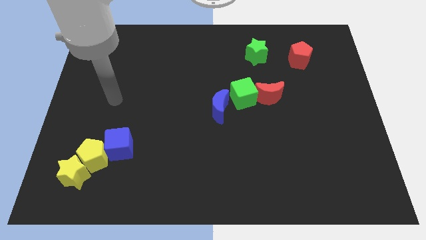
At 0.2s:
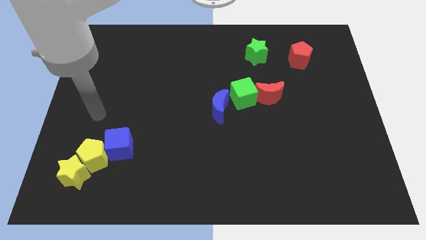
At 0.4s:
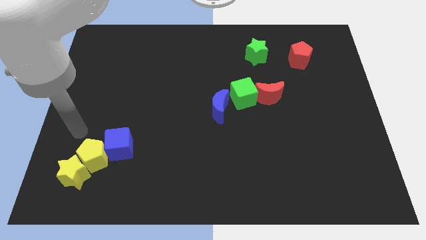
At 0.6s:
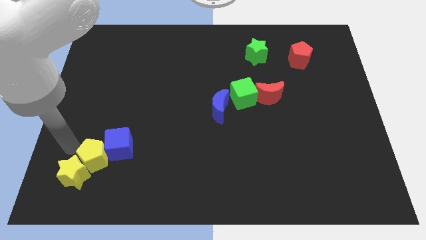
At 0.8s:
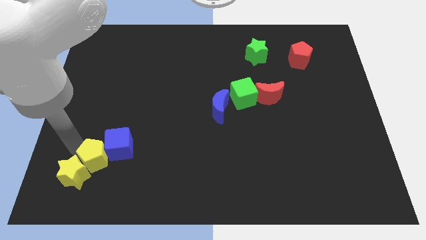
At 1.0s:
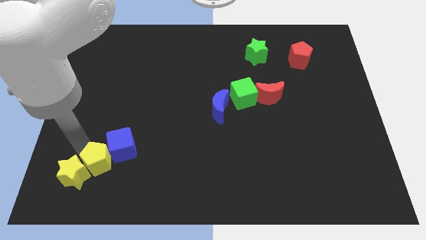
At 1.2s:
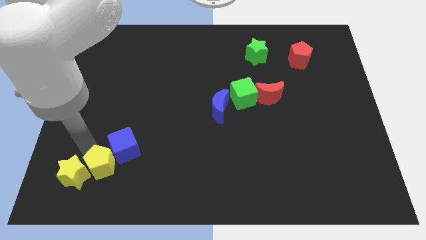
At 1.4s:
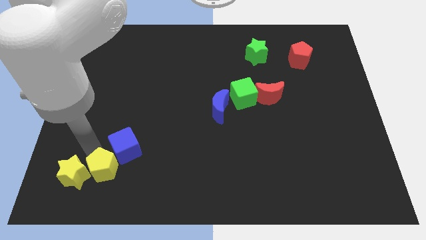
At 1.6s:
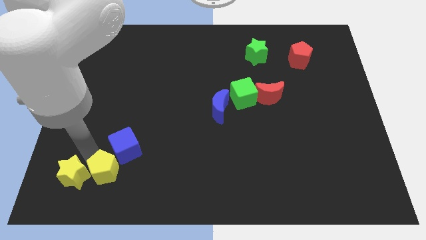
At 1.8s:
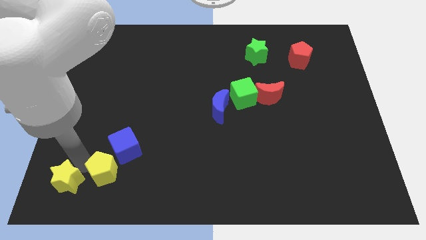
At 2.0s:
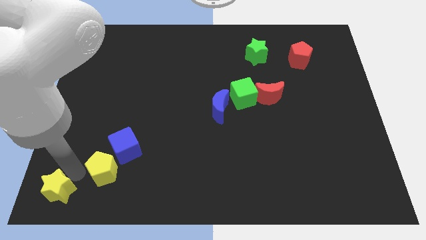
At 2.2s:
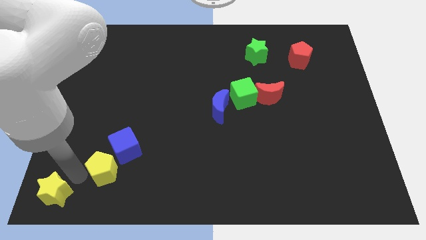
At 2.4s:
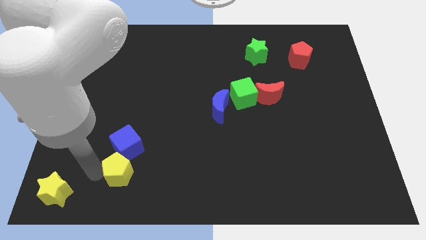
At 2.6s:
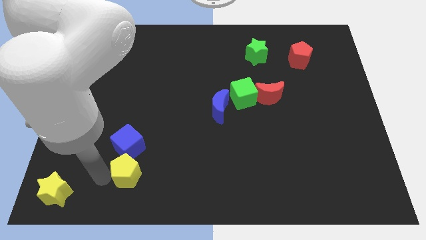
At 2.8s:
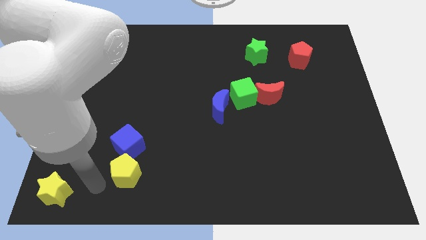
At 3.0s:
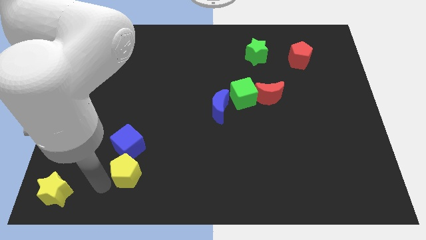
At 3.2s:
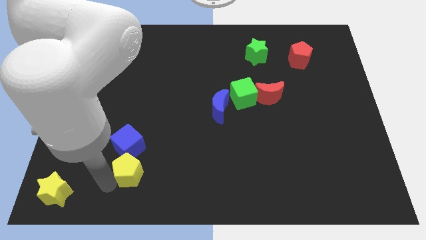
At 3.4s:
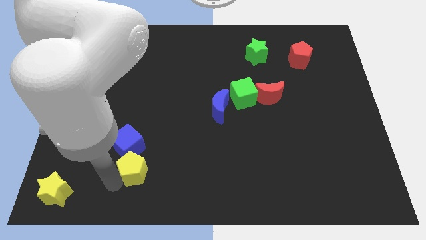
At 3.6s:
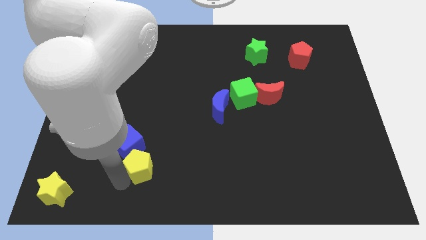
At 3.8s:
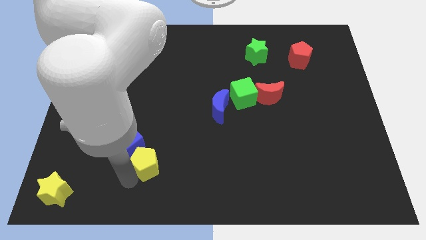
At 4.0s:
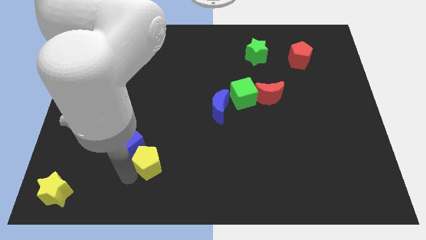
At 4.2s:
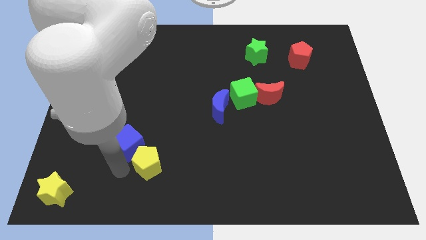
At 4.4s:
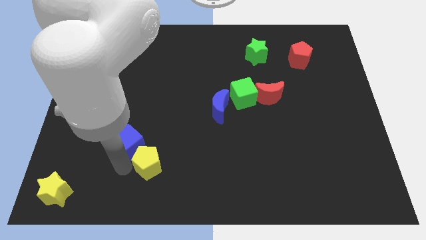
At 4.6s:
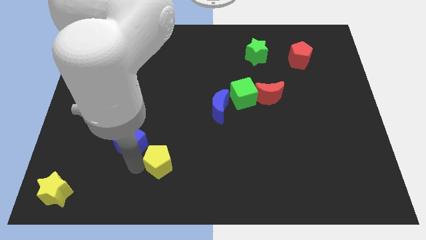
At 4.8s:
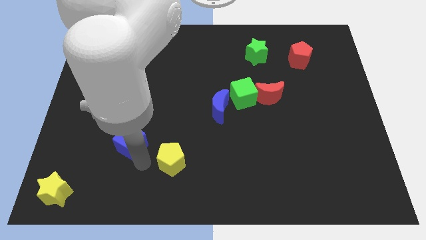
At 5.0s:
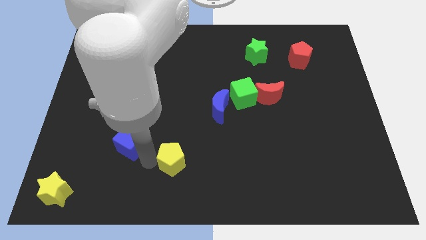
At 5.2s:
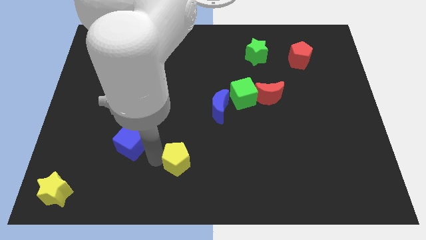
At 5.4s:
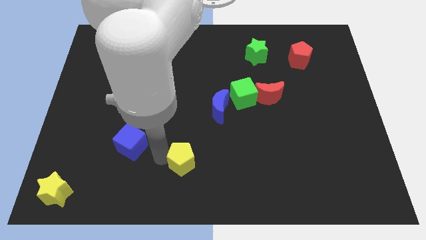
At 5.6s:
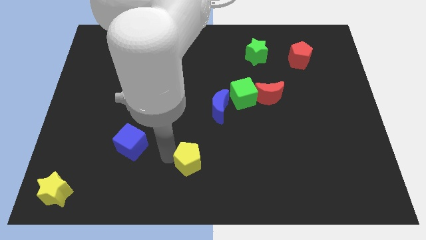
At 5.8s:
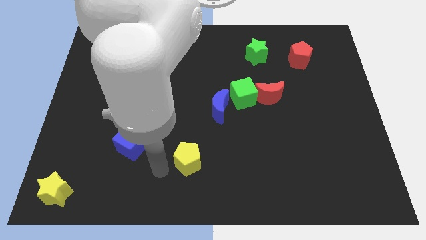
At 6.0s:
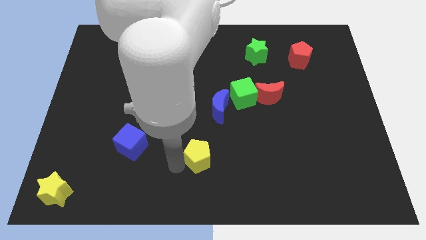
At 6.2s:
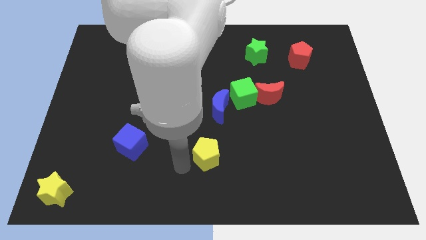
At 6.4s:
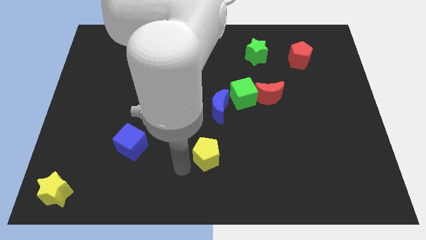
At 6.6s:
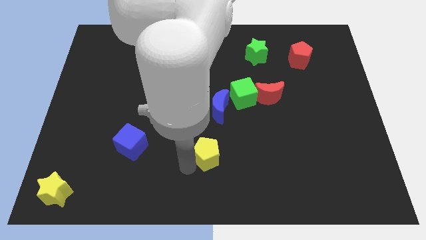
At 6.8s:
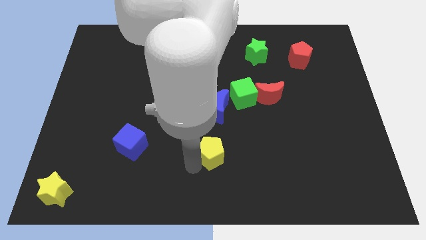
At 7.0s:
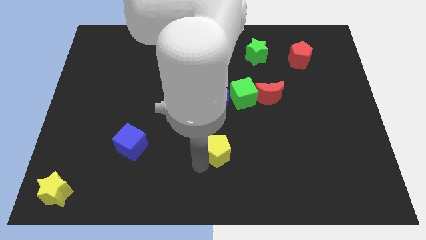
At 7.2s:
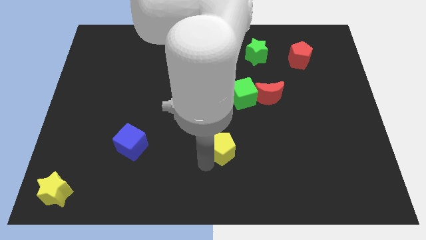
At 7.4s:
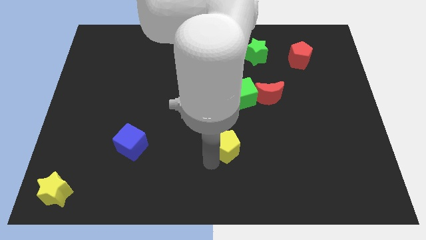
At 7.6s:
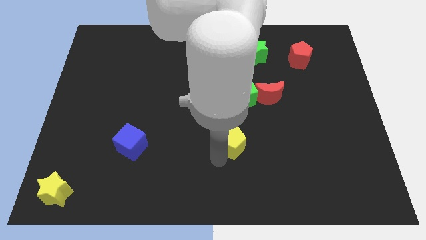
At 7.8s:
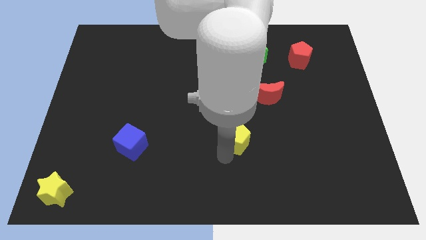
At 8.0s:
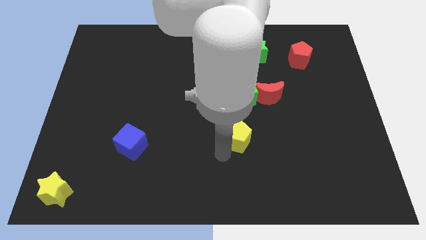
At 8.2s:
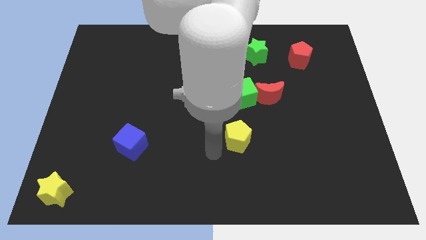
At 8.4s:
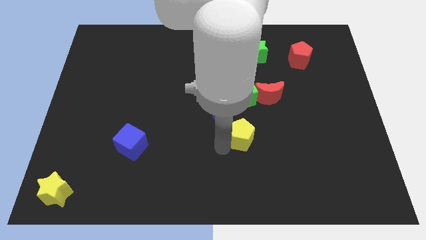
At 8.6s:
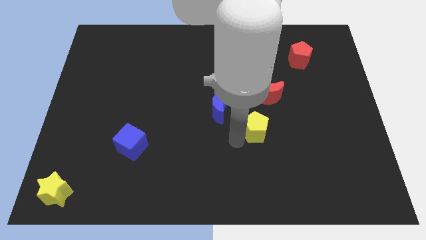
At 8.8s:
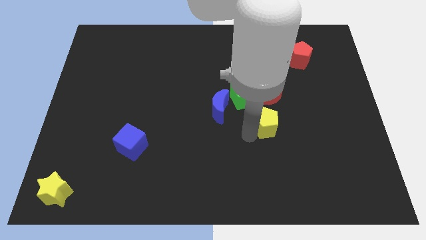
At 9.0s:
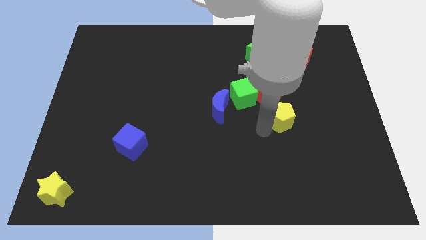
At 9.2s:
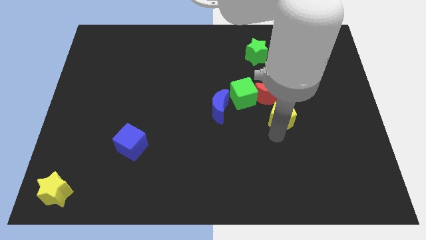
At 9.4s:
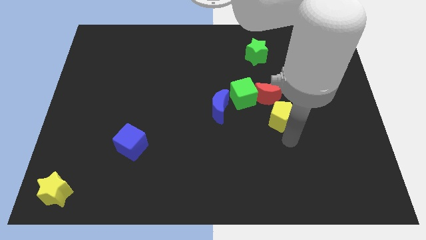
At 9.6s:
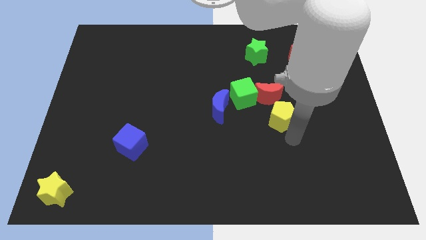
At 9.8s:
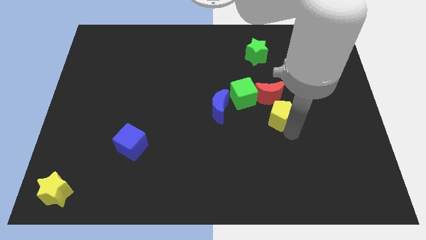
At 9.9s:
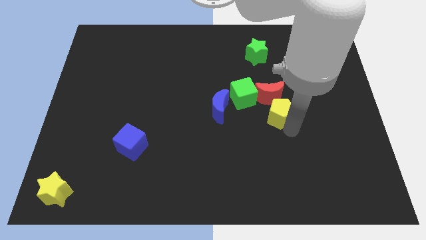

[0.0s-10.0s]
put the yellow pentagon close to the red moon

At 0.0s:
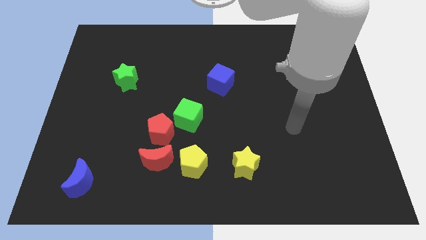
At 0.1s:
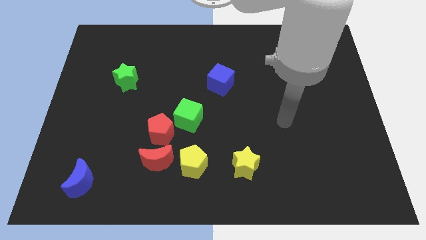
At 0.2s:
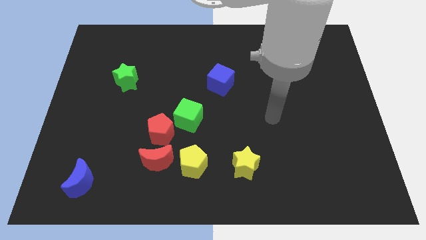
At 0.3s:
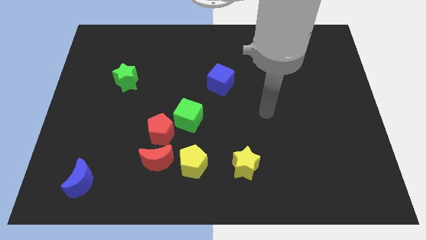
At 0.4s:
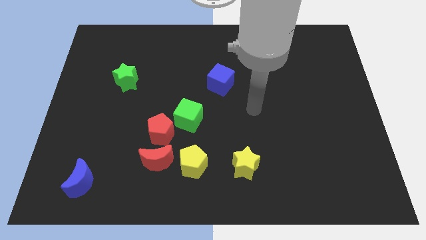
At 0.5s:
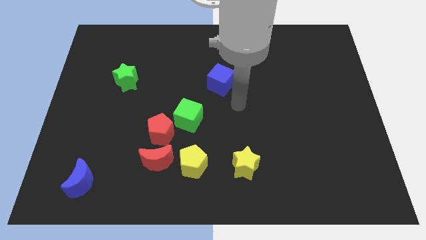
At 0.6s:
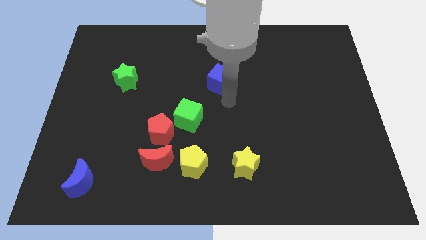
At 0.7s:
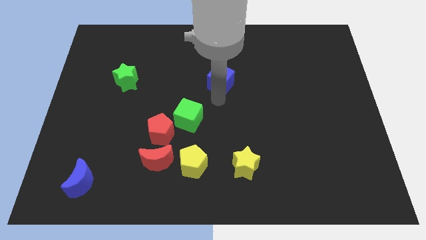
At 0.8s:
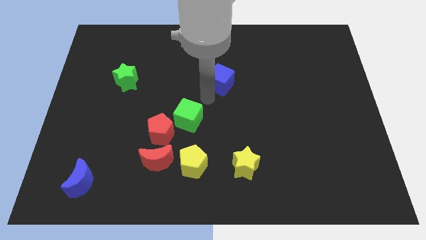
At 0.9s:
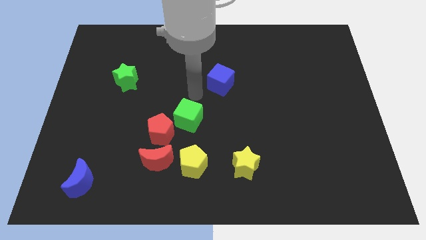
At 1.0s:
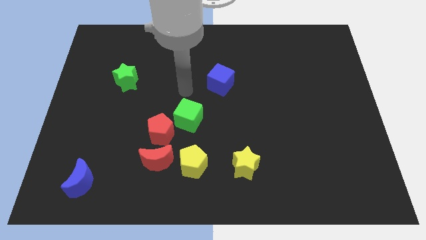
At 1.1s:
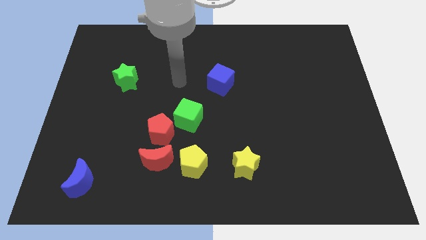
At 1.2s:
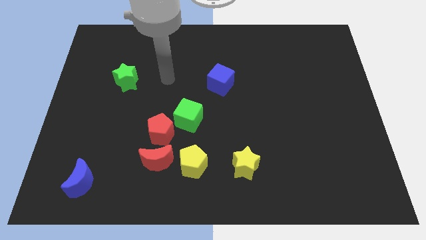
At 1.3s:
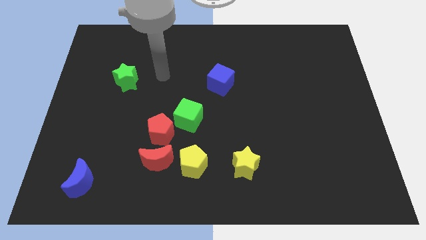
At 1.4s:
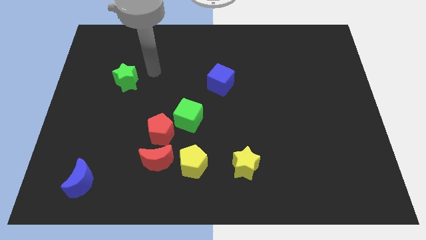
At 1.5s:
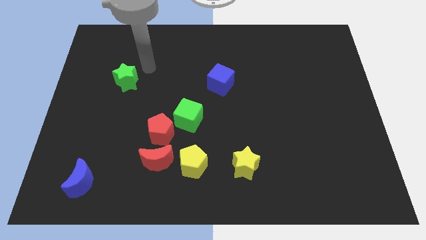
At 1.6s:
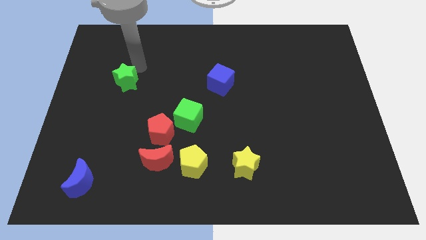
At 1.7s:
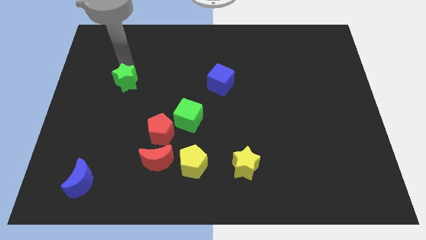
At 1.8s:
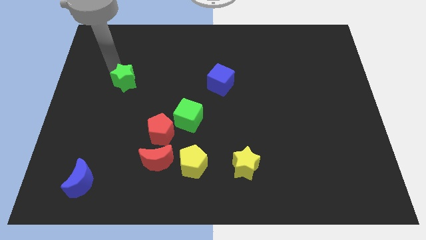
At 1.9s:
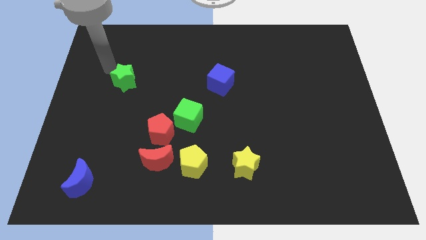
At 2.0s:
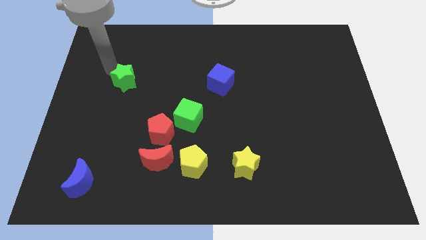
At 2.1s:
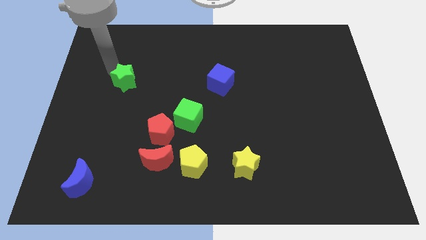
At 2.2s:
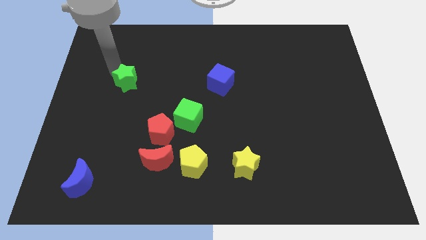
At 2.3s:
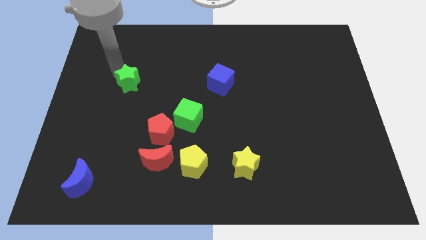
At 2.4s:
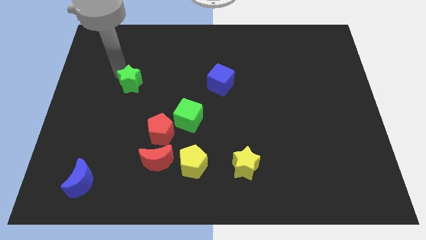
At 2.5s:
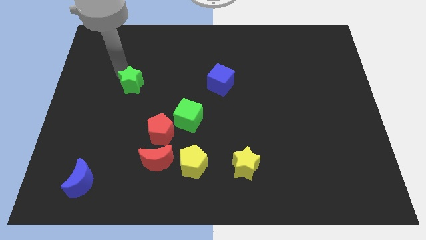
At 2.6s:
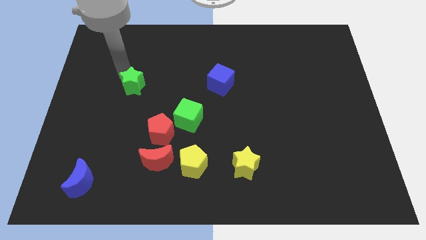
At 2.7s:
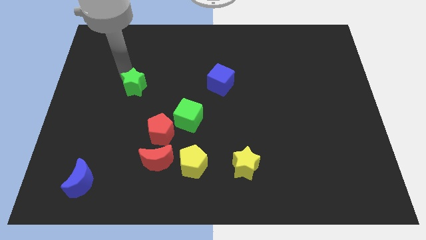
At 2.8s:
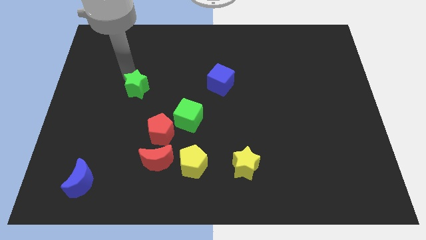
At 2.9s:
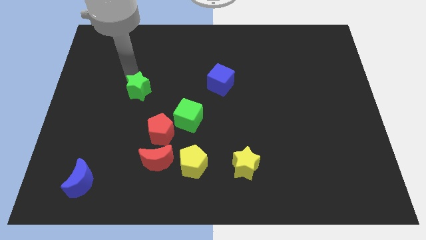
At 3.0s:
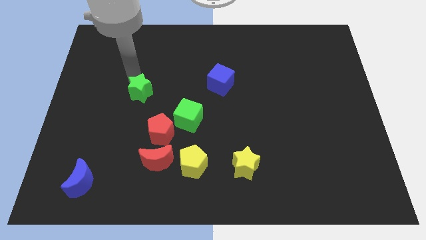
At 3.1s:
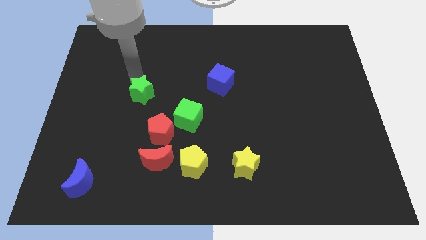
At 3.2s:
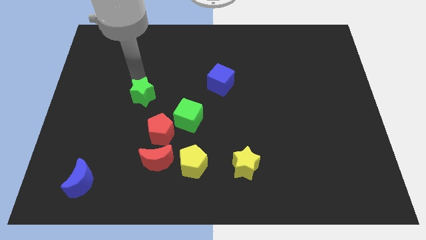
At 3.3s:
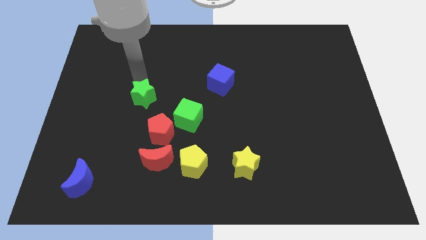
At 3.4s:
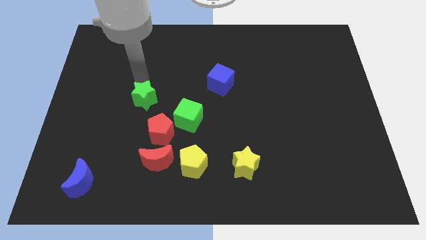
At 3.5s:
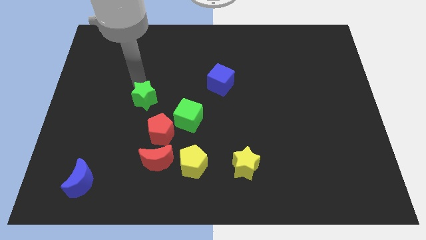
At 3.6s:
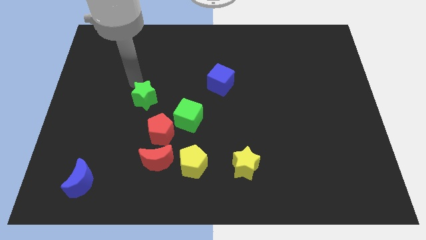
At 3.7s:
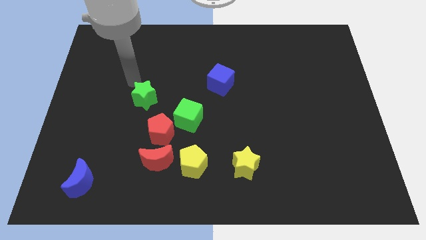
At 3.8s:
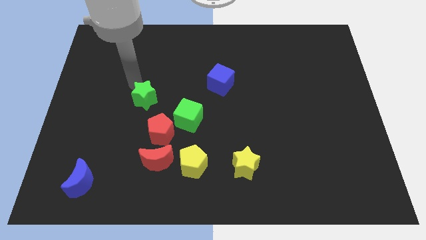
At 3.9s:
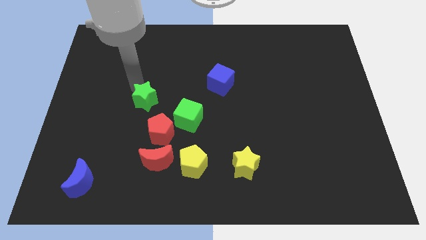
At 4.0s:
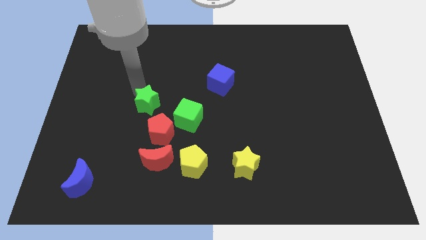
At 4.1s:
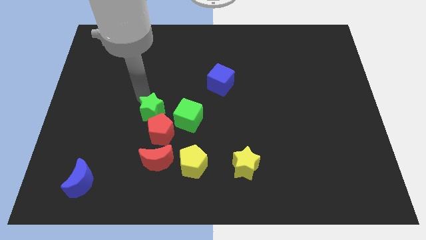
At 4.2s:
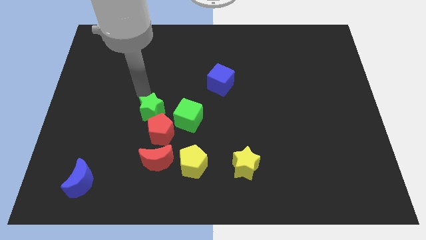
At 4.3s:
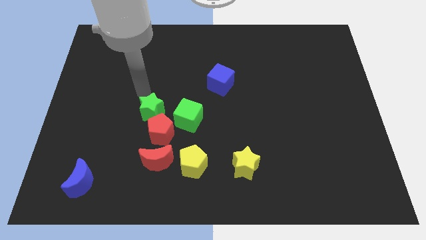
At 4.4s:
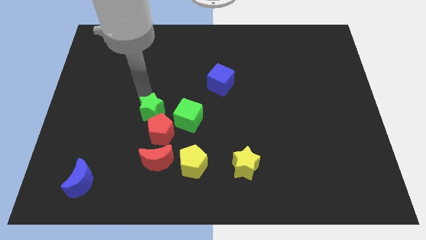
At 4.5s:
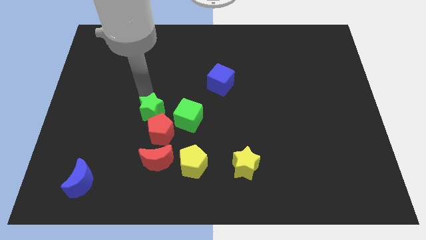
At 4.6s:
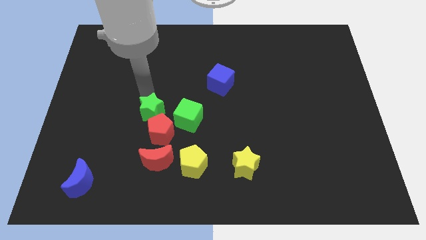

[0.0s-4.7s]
move the green star to the red pentagon
